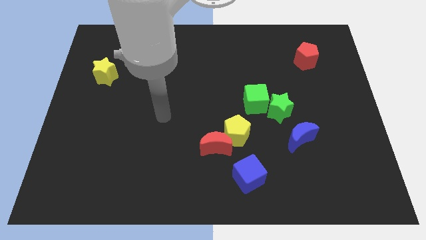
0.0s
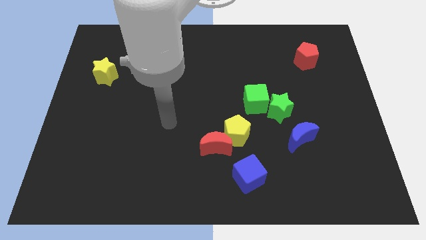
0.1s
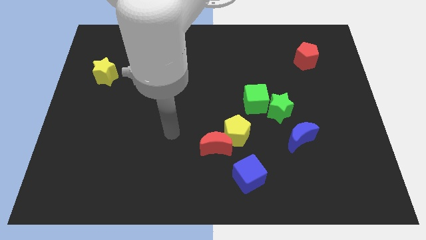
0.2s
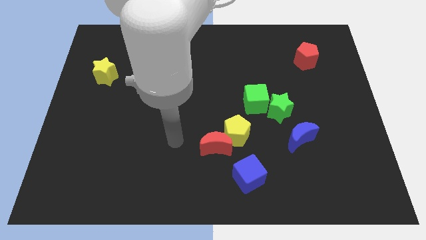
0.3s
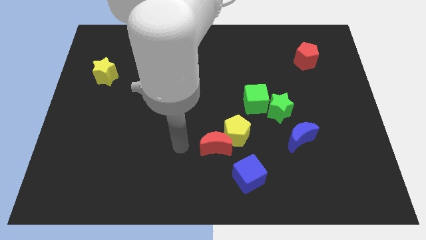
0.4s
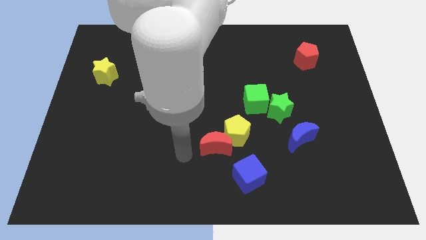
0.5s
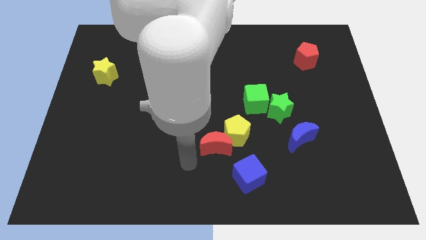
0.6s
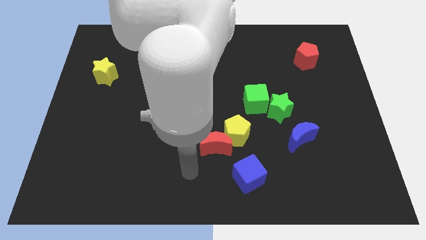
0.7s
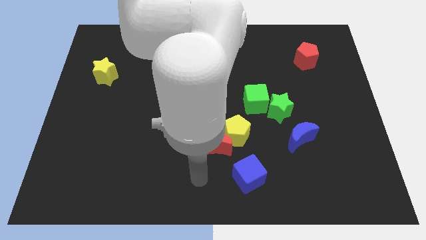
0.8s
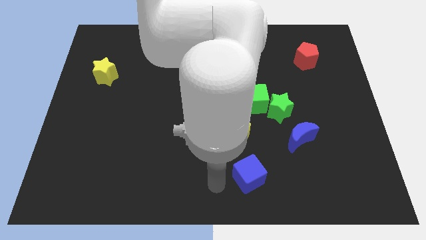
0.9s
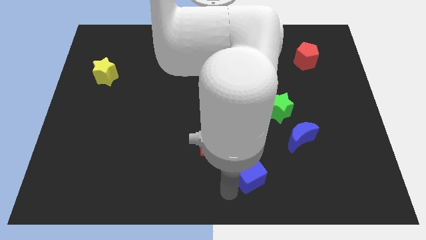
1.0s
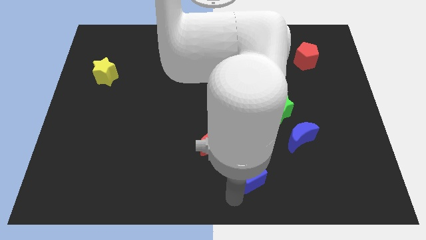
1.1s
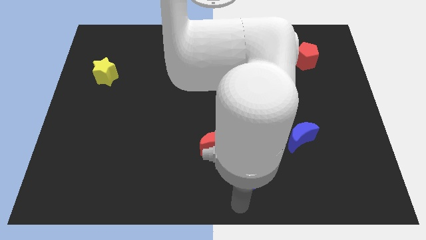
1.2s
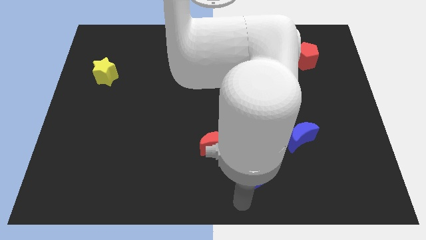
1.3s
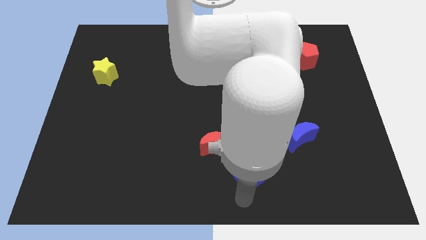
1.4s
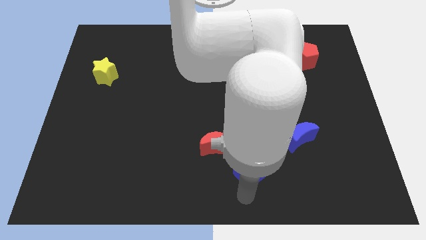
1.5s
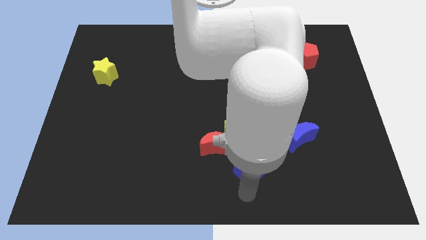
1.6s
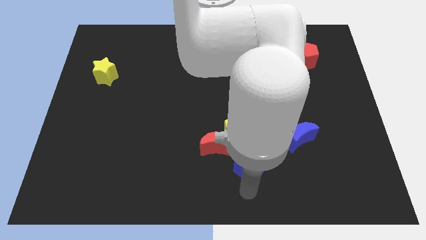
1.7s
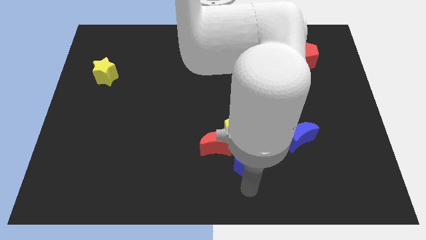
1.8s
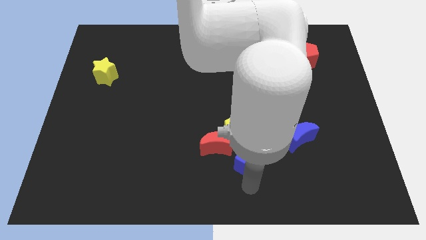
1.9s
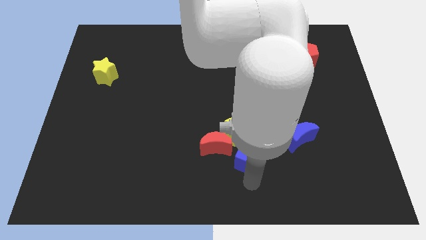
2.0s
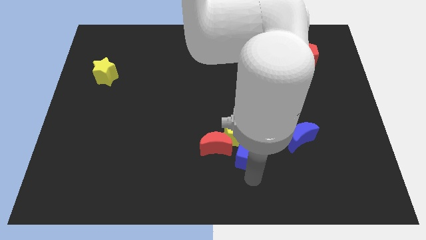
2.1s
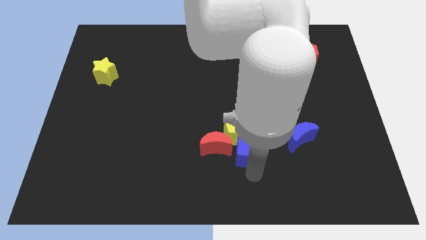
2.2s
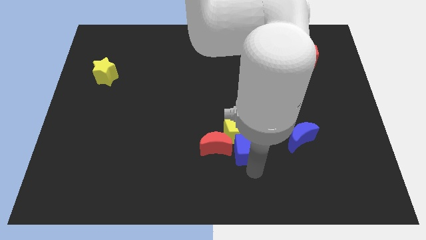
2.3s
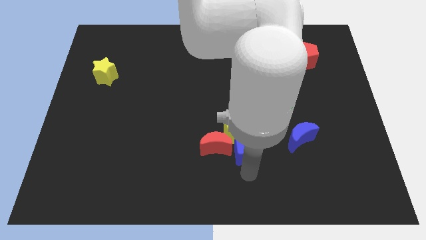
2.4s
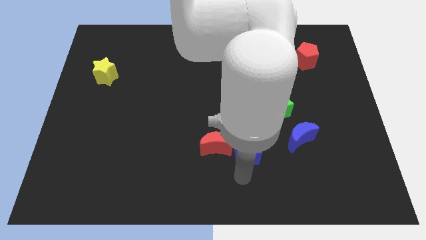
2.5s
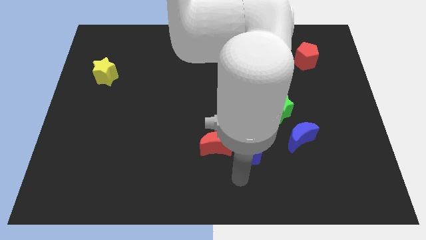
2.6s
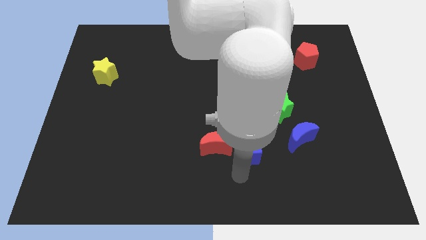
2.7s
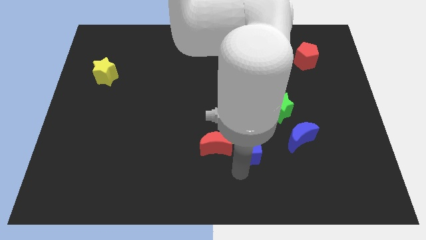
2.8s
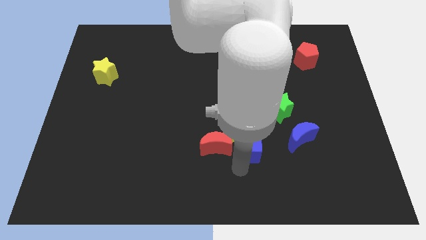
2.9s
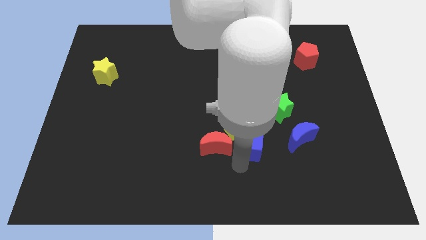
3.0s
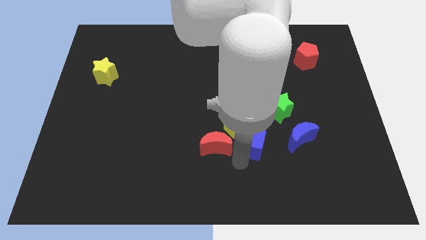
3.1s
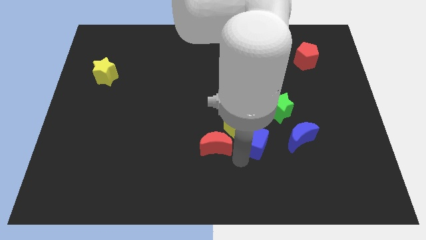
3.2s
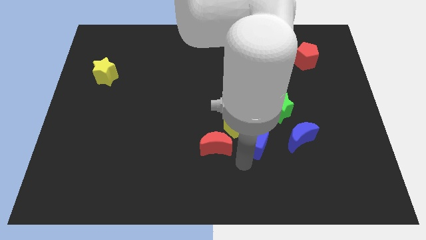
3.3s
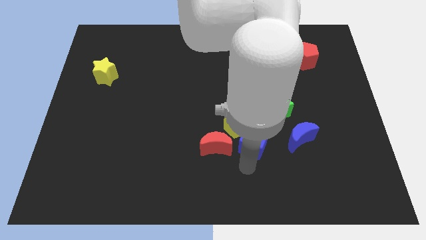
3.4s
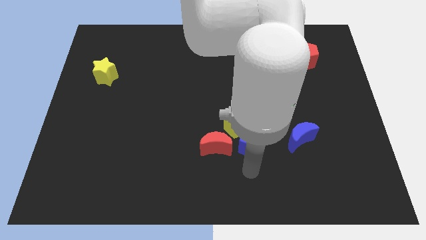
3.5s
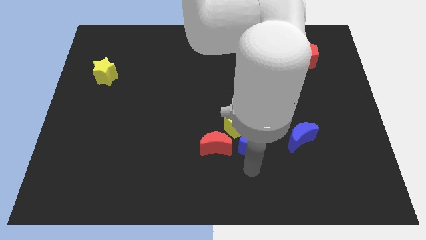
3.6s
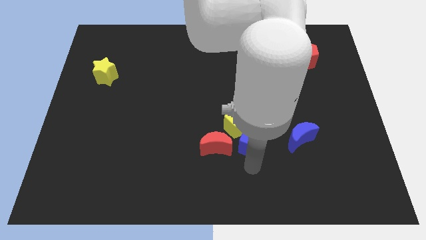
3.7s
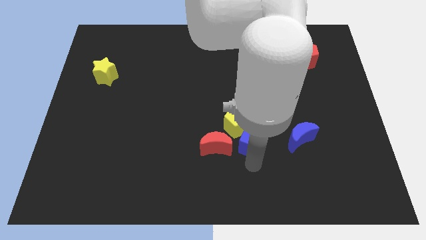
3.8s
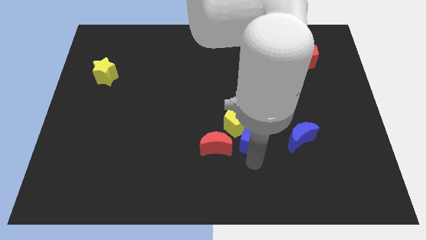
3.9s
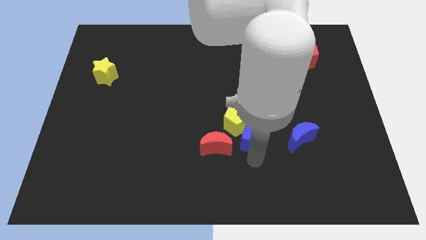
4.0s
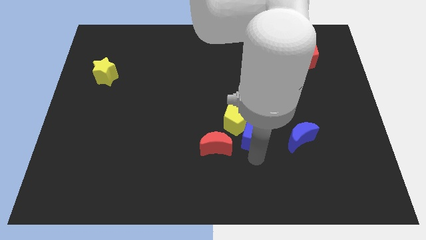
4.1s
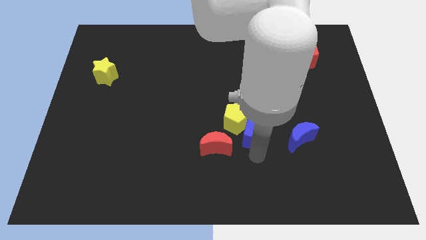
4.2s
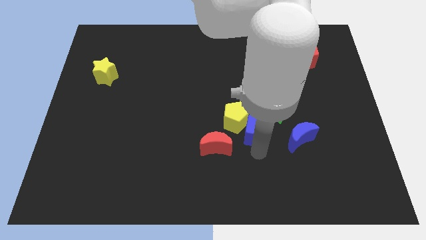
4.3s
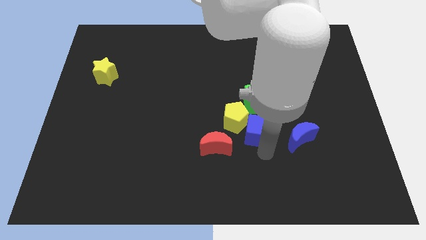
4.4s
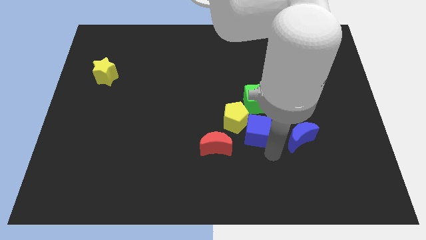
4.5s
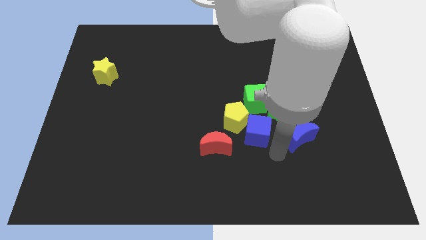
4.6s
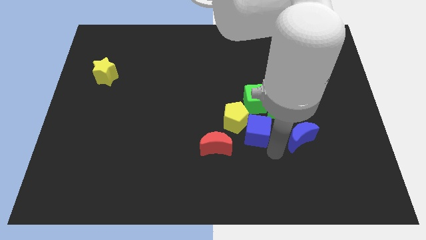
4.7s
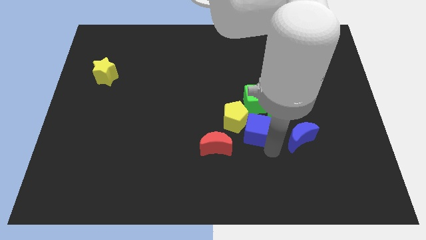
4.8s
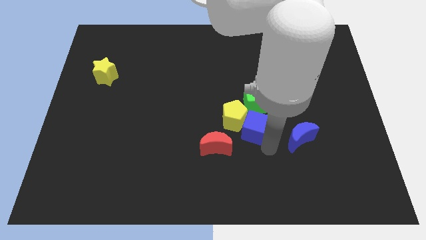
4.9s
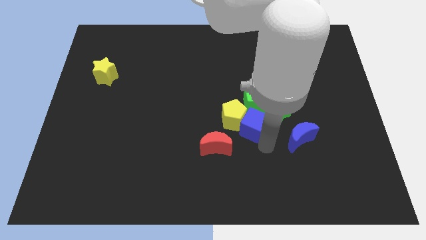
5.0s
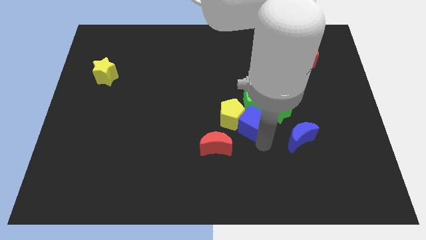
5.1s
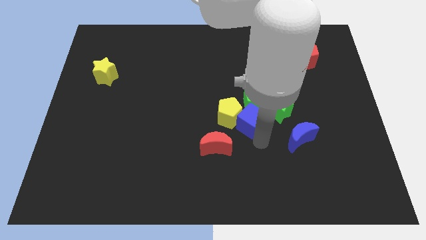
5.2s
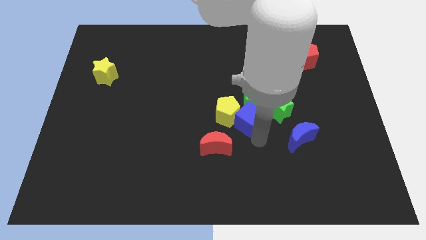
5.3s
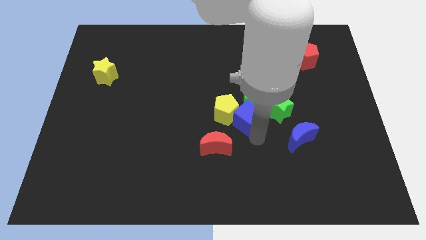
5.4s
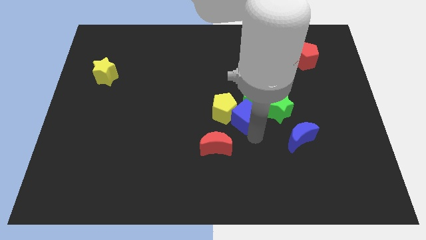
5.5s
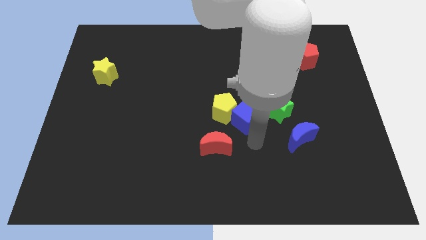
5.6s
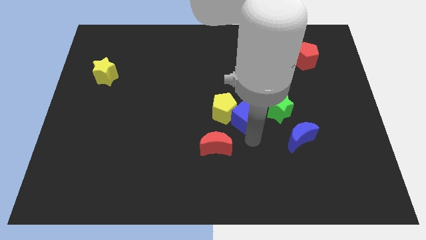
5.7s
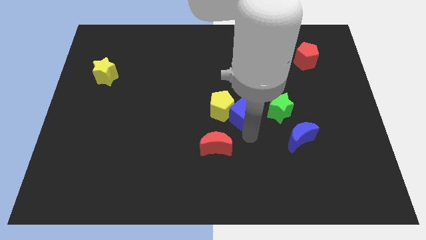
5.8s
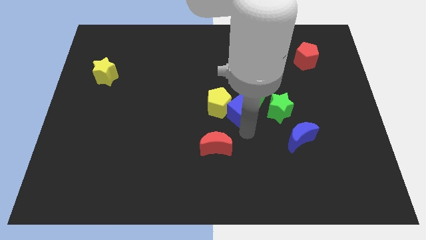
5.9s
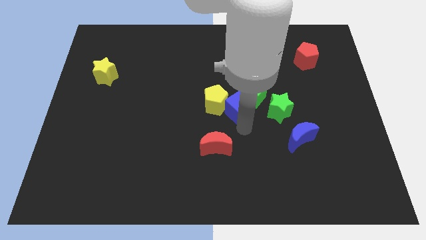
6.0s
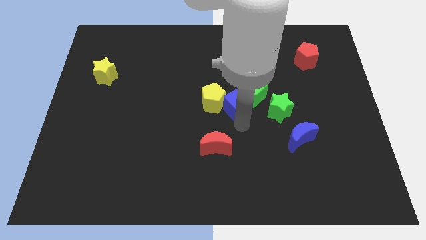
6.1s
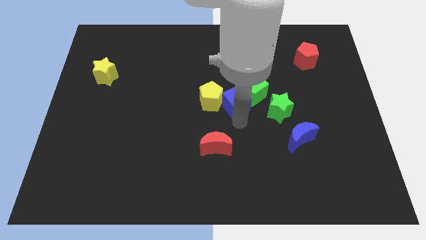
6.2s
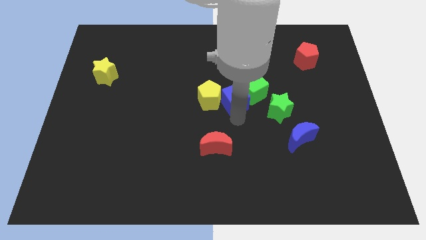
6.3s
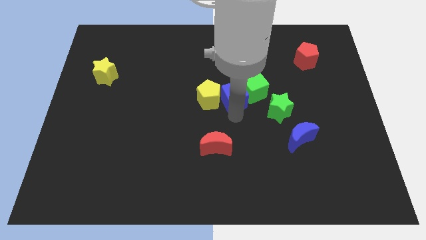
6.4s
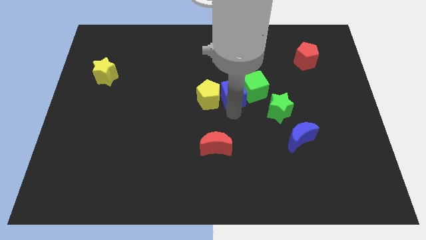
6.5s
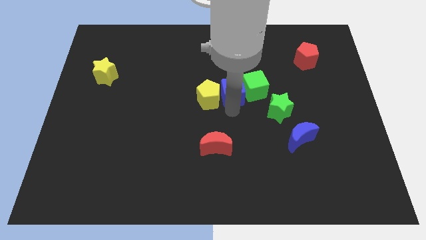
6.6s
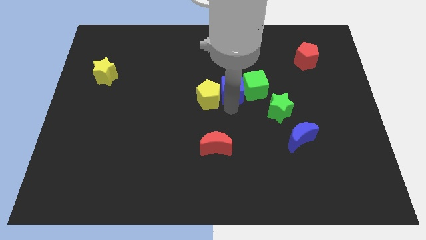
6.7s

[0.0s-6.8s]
move the blue cube diagonally up and to the left of the green cube

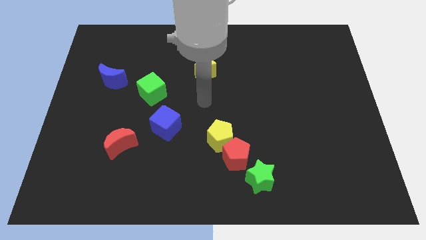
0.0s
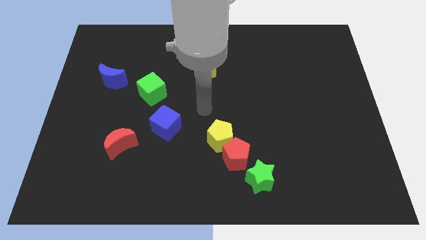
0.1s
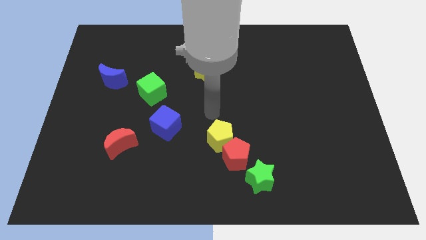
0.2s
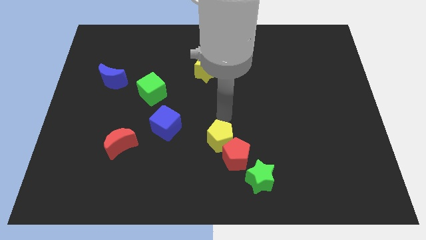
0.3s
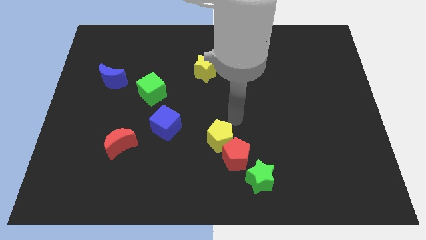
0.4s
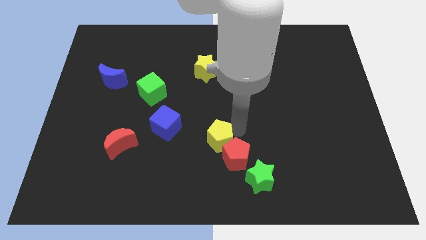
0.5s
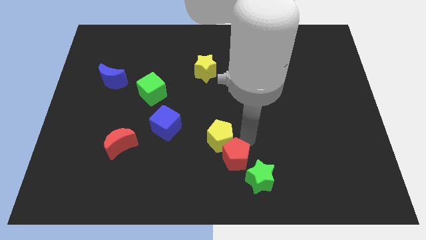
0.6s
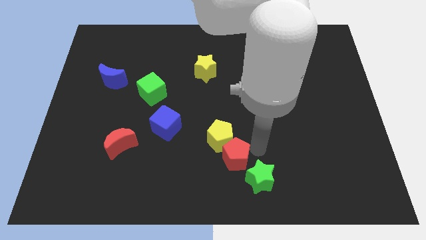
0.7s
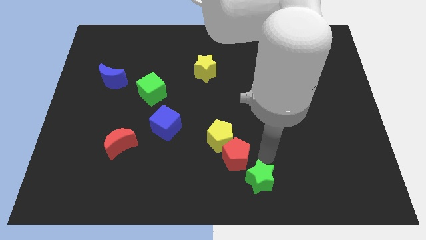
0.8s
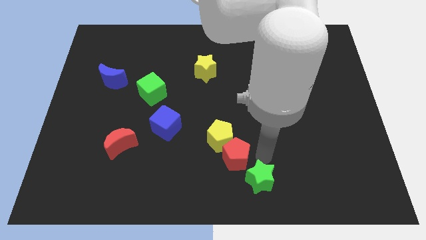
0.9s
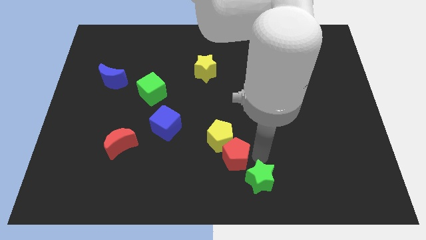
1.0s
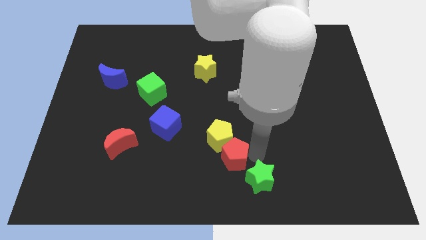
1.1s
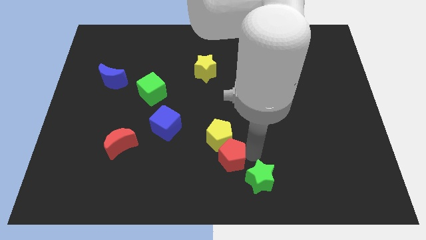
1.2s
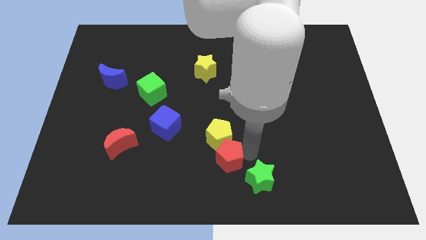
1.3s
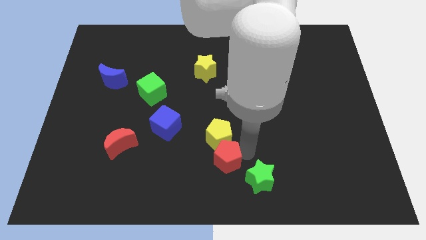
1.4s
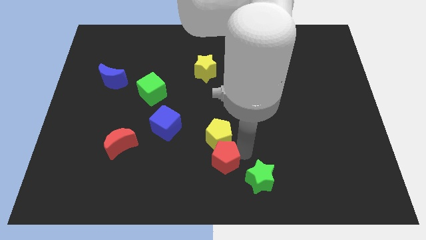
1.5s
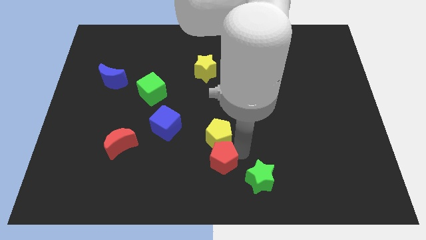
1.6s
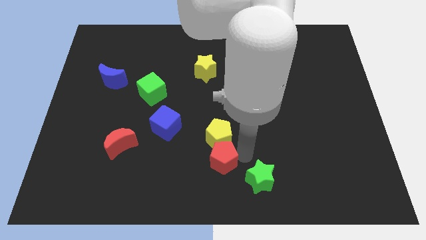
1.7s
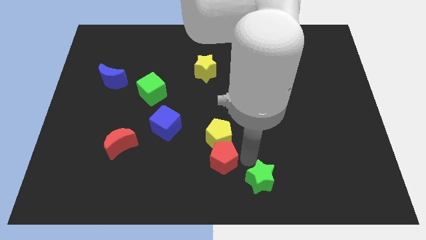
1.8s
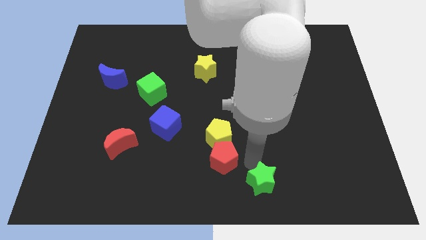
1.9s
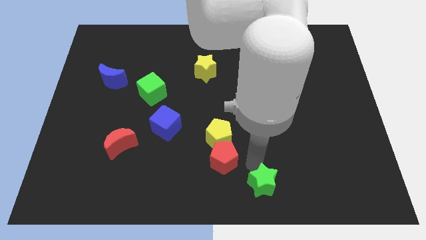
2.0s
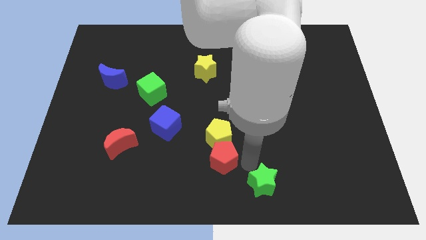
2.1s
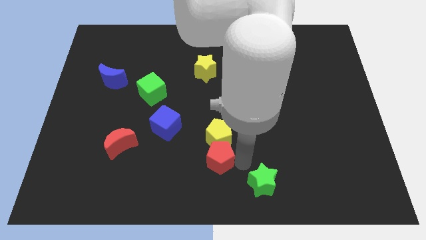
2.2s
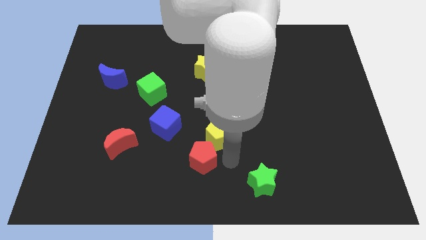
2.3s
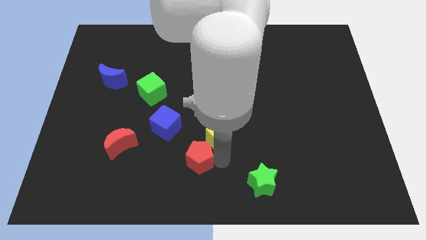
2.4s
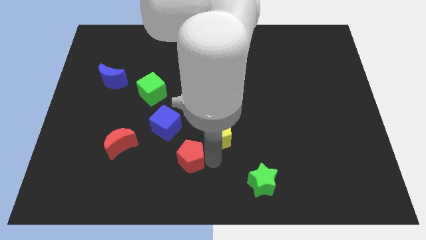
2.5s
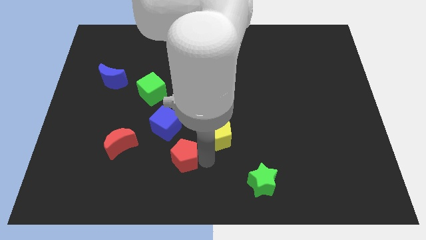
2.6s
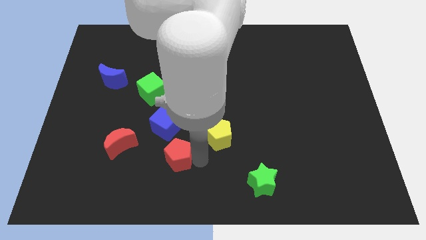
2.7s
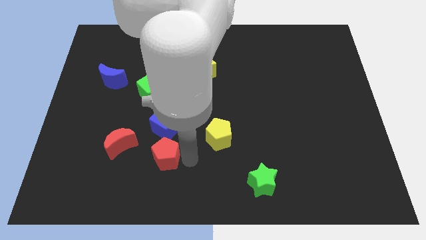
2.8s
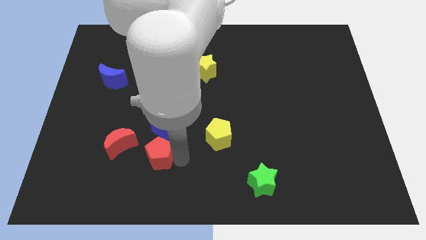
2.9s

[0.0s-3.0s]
slide the red pentagon to the bottom left side of the blue cube
